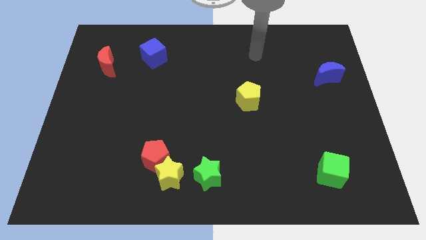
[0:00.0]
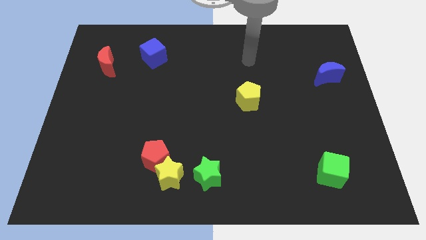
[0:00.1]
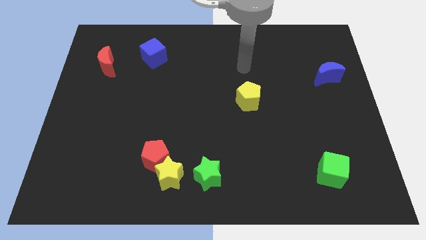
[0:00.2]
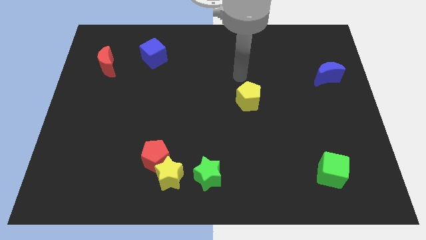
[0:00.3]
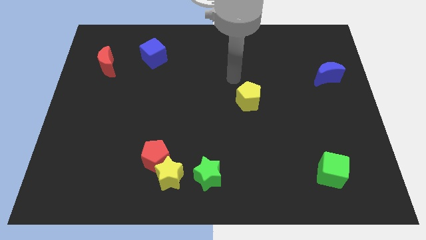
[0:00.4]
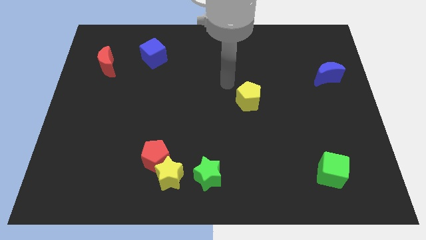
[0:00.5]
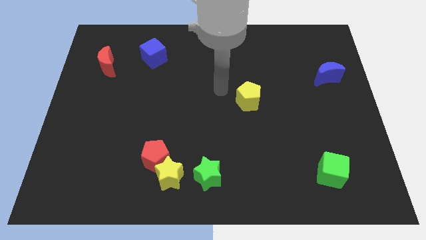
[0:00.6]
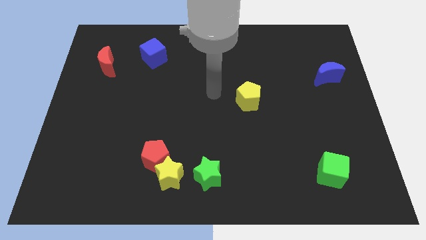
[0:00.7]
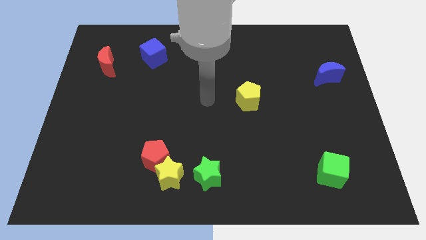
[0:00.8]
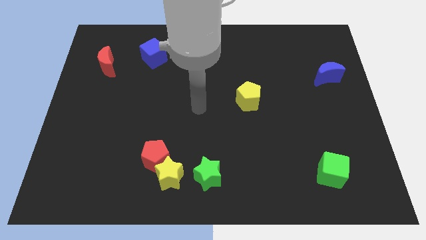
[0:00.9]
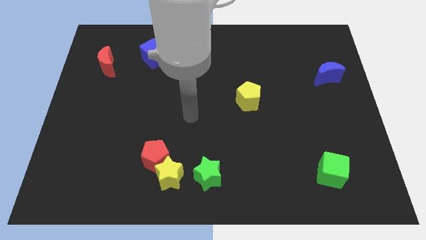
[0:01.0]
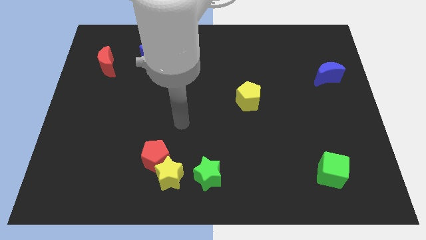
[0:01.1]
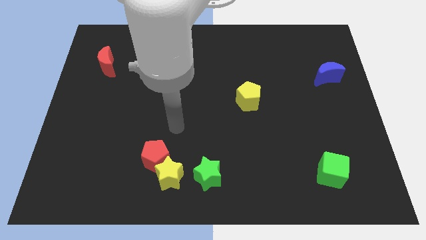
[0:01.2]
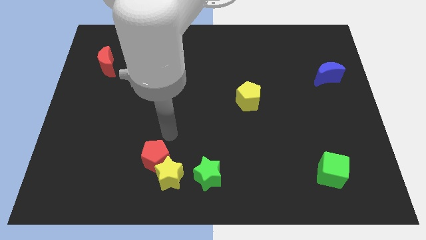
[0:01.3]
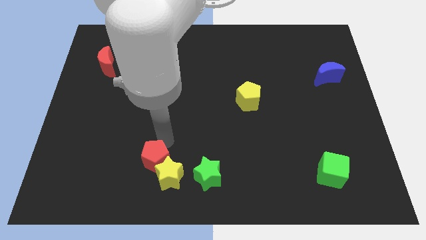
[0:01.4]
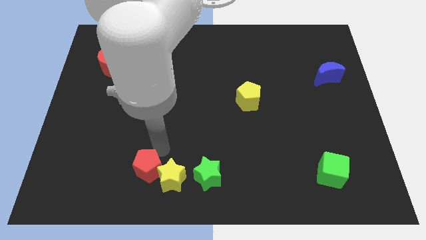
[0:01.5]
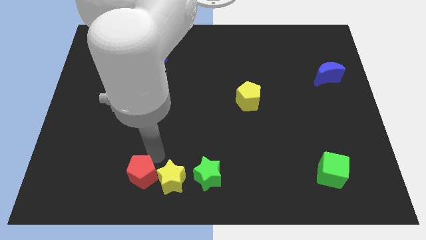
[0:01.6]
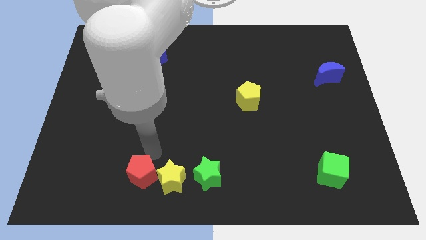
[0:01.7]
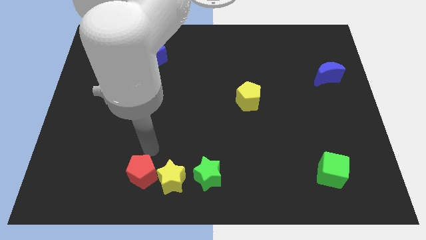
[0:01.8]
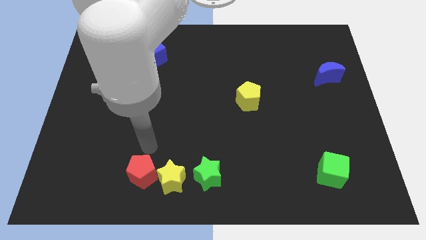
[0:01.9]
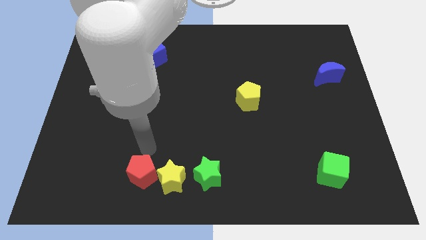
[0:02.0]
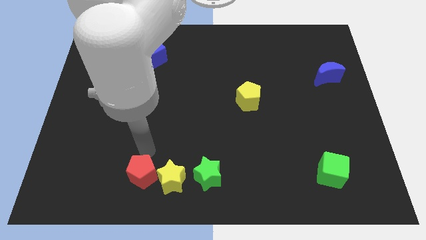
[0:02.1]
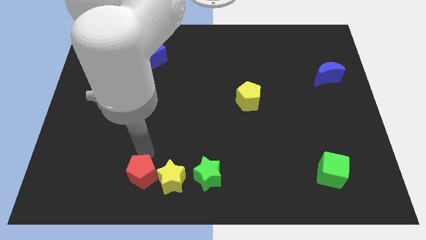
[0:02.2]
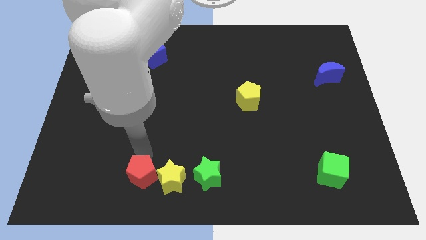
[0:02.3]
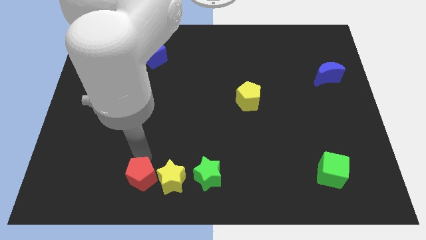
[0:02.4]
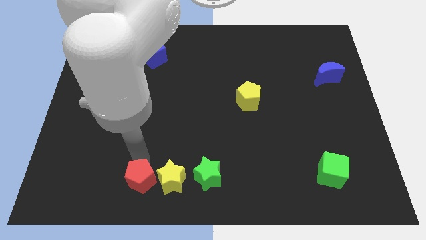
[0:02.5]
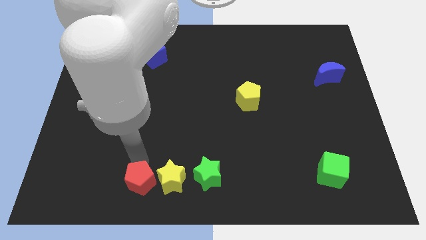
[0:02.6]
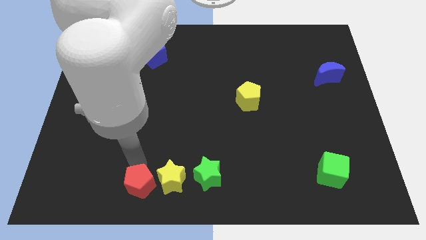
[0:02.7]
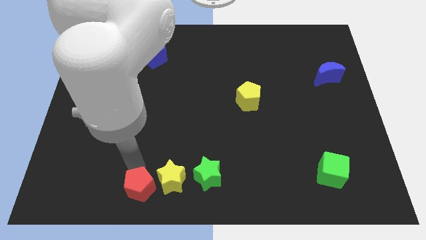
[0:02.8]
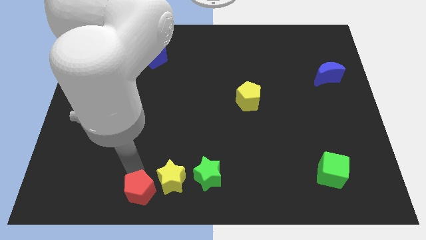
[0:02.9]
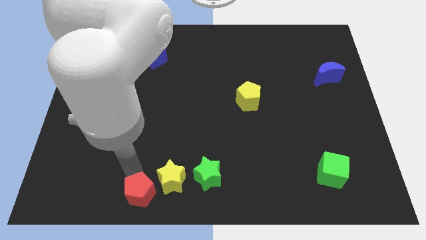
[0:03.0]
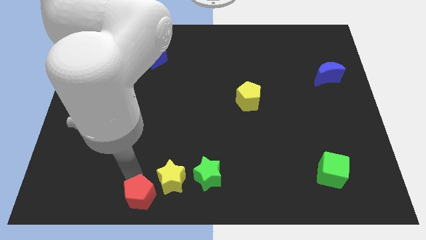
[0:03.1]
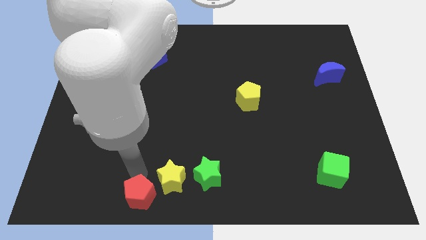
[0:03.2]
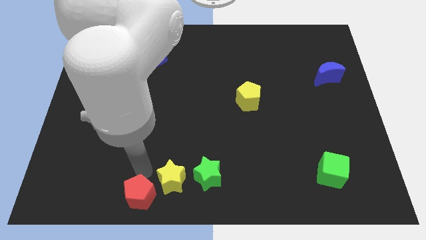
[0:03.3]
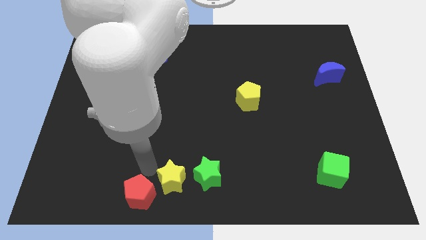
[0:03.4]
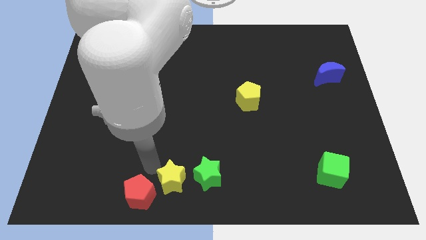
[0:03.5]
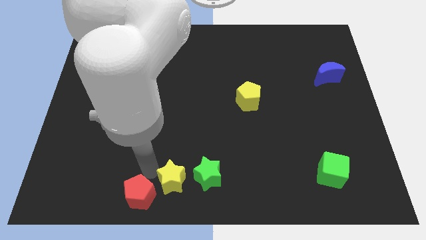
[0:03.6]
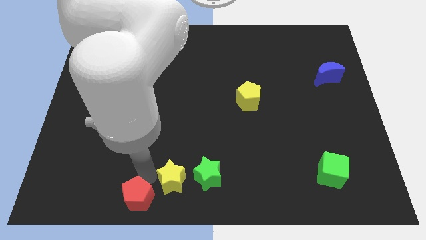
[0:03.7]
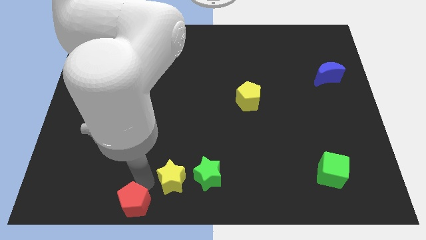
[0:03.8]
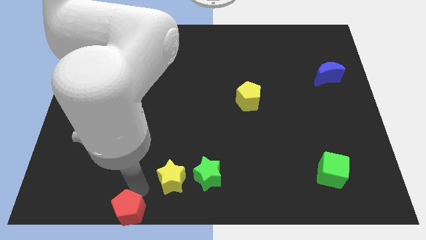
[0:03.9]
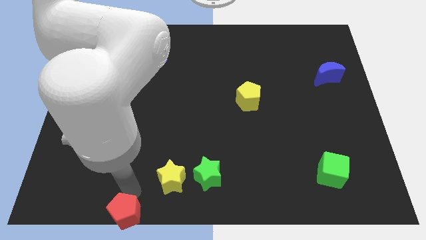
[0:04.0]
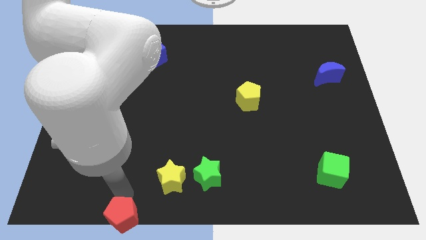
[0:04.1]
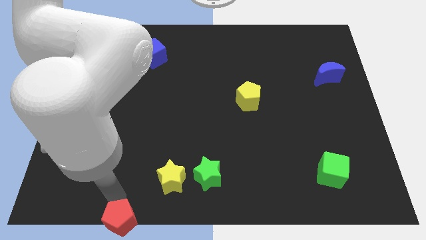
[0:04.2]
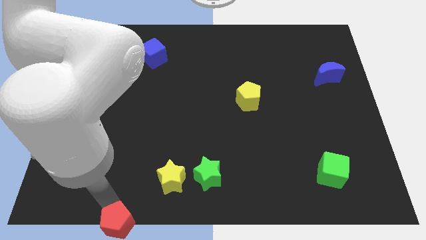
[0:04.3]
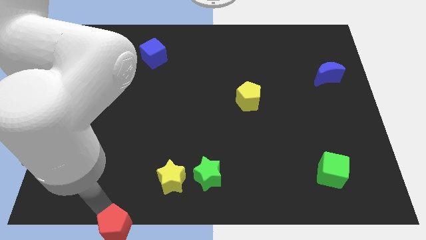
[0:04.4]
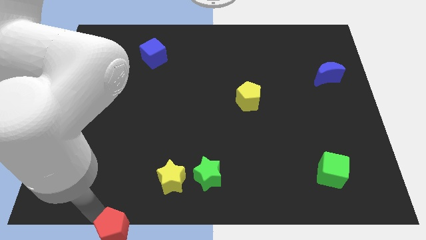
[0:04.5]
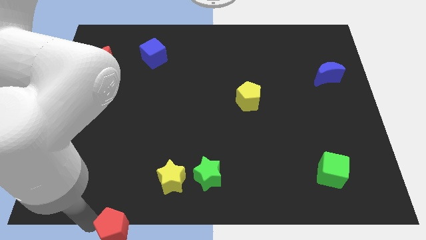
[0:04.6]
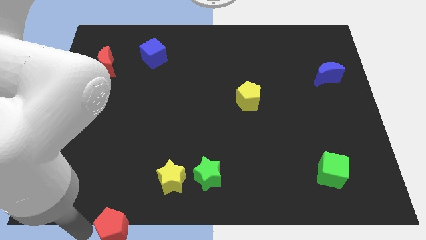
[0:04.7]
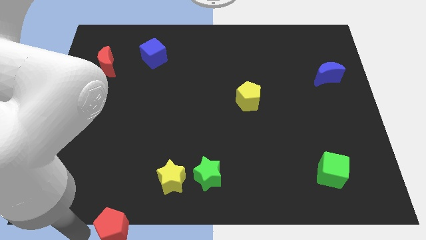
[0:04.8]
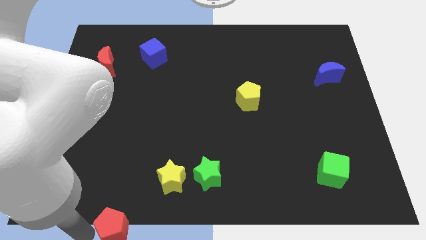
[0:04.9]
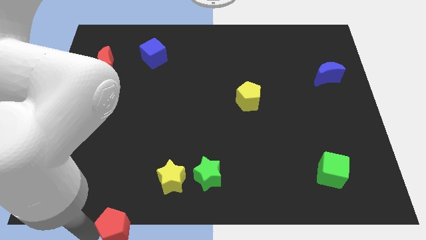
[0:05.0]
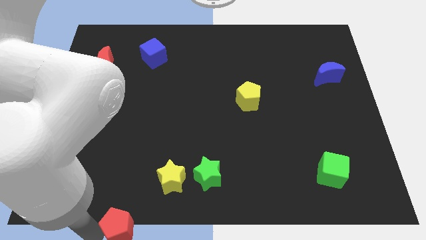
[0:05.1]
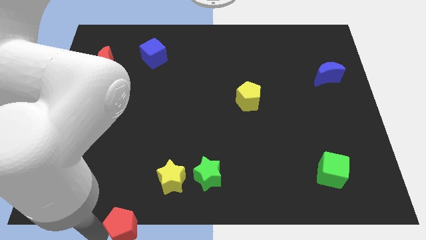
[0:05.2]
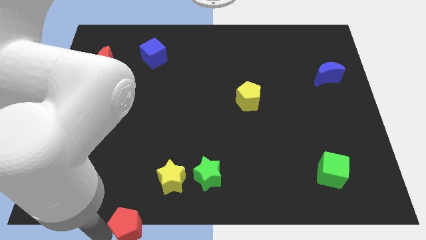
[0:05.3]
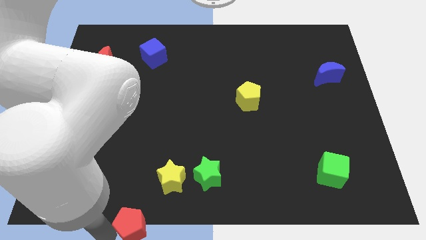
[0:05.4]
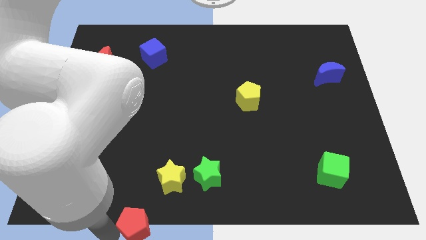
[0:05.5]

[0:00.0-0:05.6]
push the red pentagon to the bottom side
